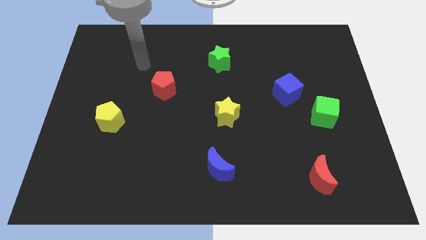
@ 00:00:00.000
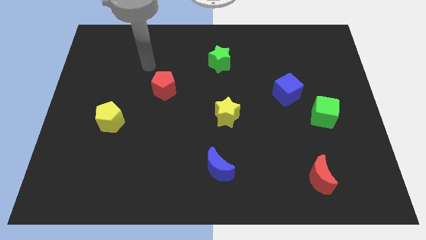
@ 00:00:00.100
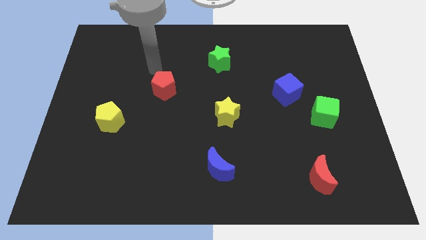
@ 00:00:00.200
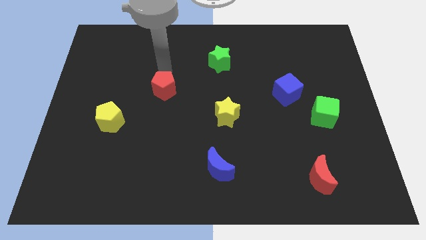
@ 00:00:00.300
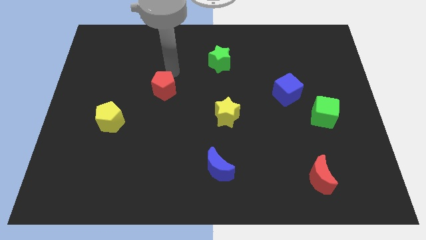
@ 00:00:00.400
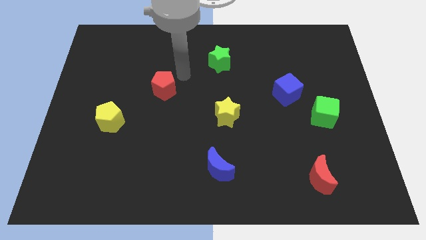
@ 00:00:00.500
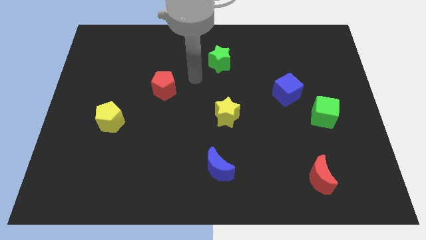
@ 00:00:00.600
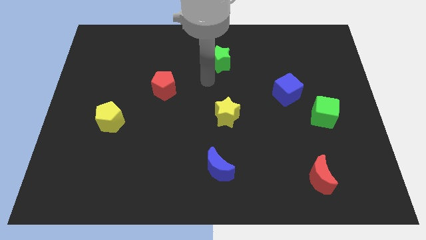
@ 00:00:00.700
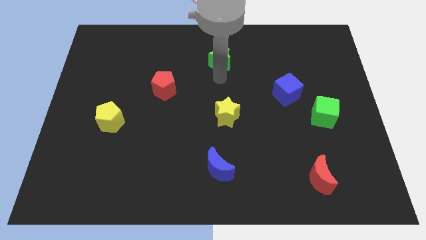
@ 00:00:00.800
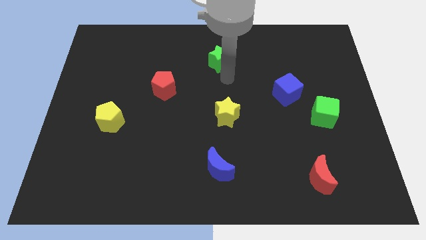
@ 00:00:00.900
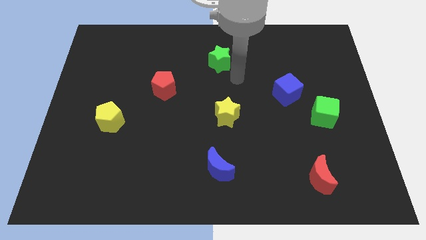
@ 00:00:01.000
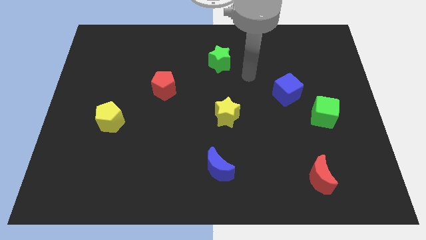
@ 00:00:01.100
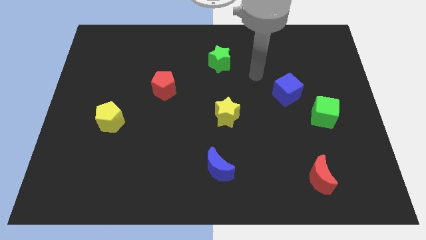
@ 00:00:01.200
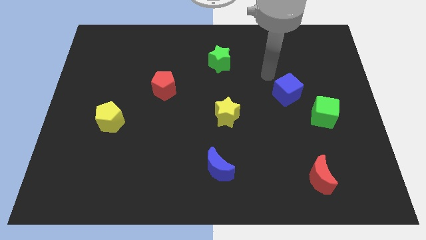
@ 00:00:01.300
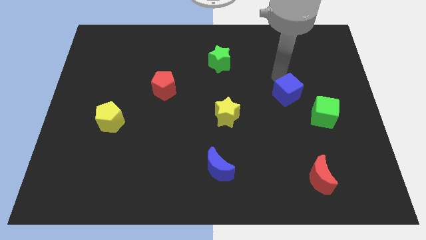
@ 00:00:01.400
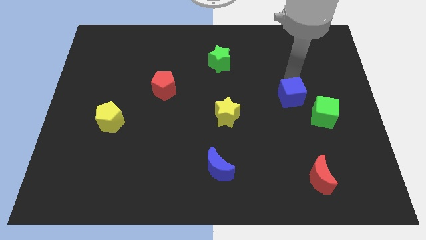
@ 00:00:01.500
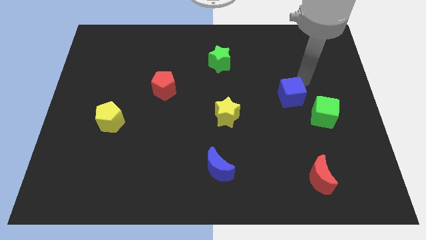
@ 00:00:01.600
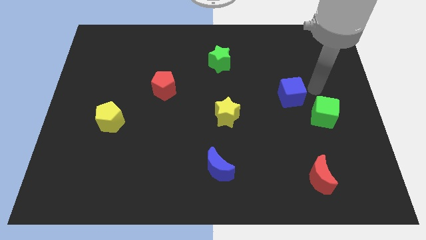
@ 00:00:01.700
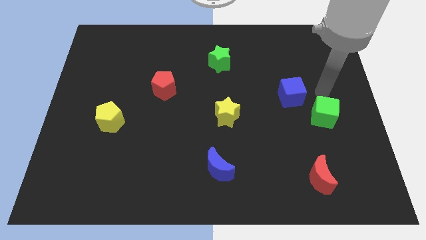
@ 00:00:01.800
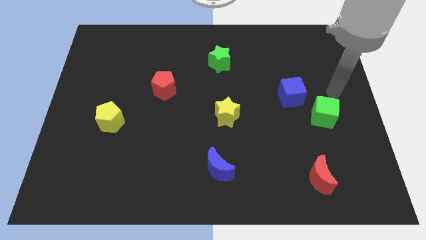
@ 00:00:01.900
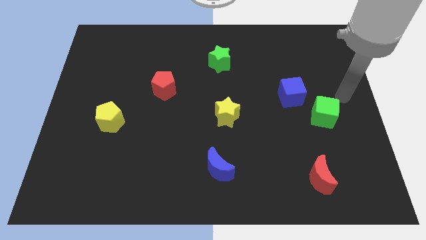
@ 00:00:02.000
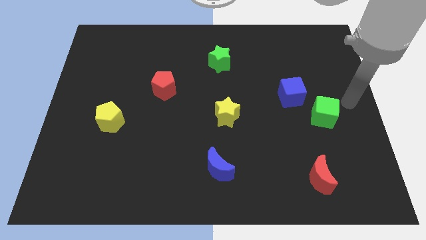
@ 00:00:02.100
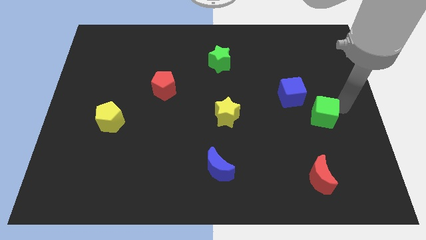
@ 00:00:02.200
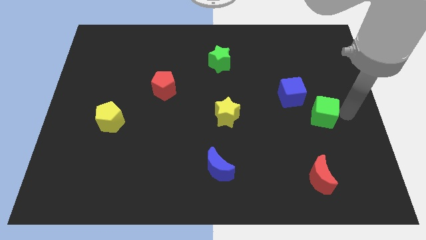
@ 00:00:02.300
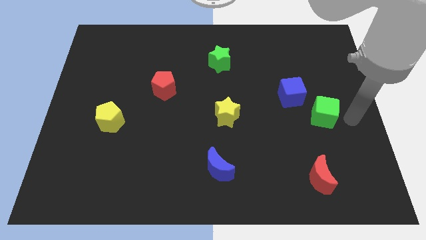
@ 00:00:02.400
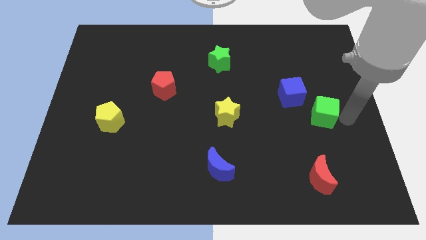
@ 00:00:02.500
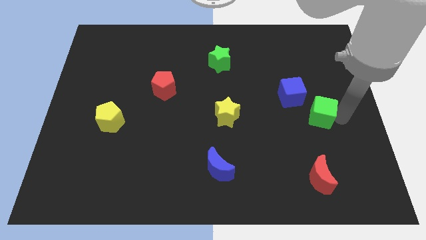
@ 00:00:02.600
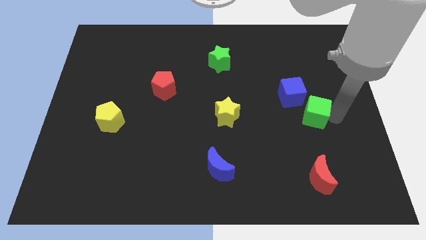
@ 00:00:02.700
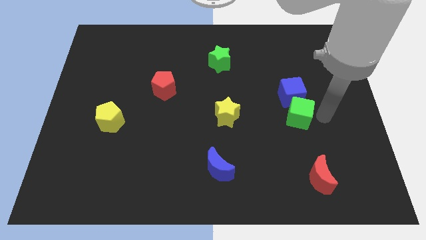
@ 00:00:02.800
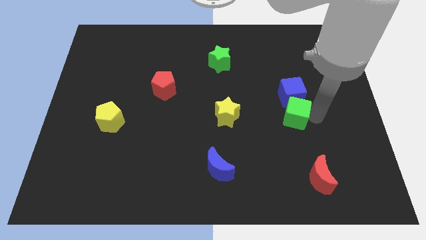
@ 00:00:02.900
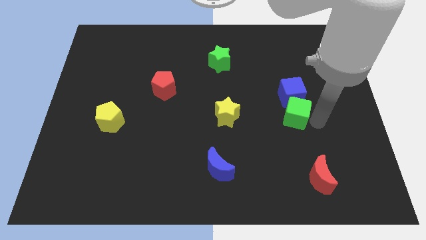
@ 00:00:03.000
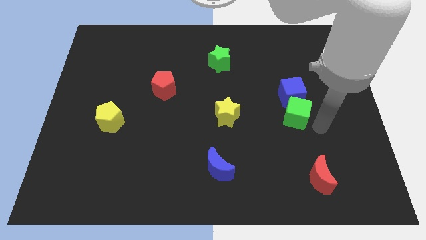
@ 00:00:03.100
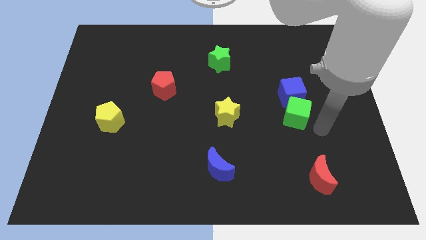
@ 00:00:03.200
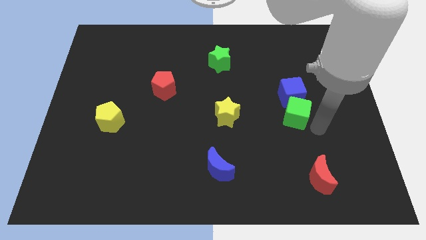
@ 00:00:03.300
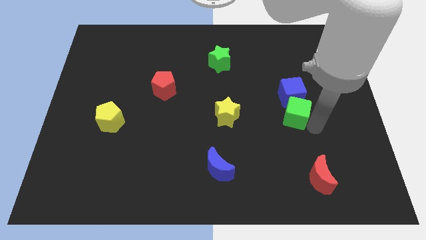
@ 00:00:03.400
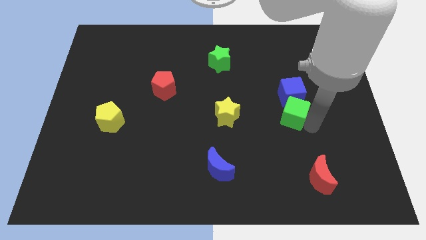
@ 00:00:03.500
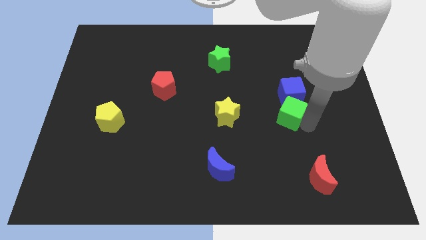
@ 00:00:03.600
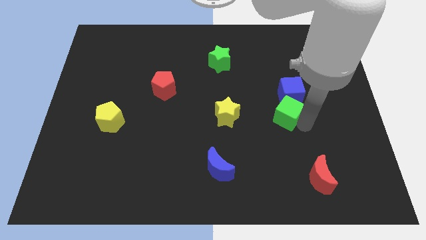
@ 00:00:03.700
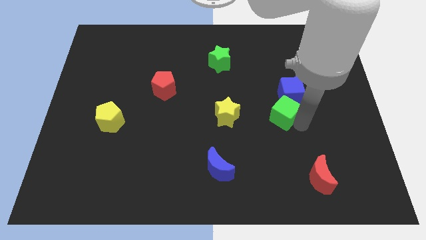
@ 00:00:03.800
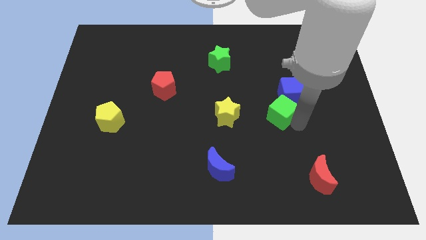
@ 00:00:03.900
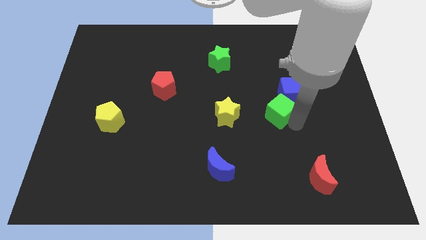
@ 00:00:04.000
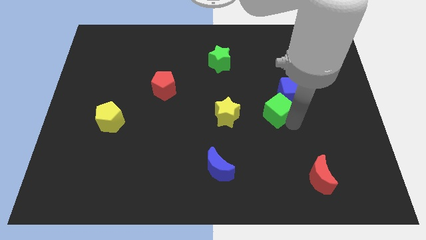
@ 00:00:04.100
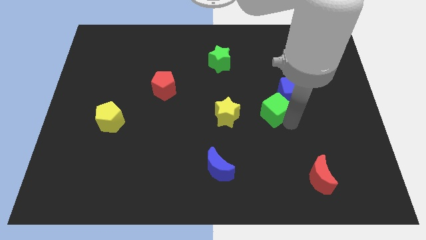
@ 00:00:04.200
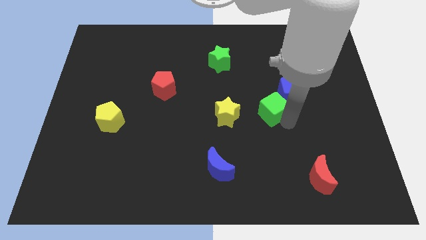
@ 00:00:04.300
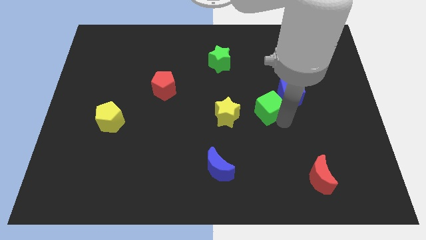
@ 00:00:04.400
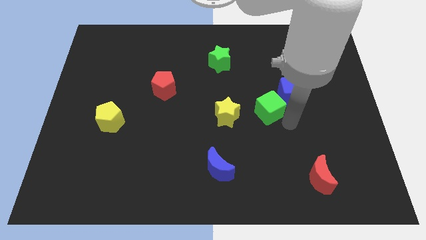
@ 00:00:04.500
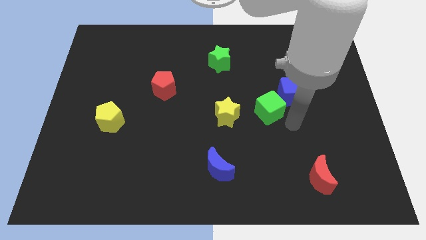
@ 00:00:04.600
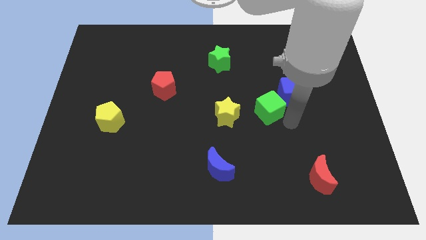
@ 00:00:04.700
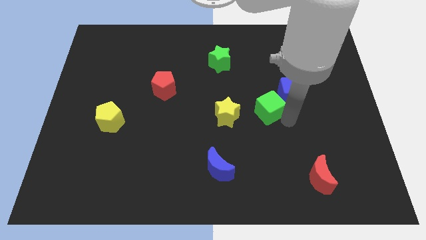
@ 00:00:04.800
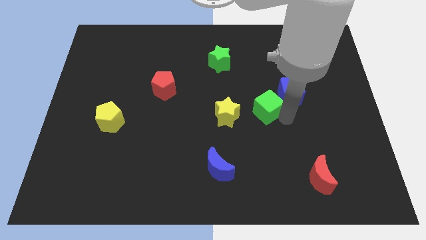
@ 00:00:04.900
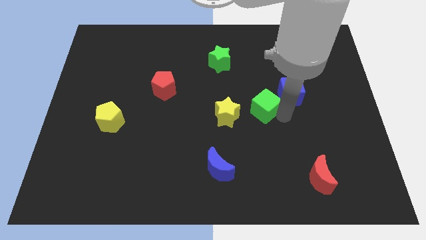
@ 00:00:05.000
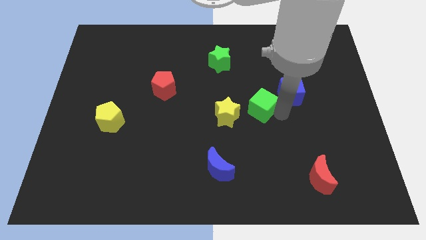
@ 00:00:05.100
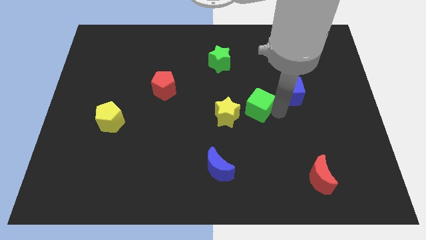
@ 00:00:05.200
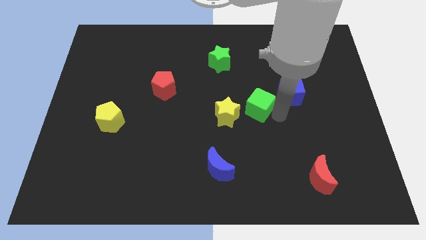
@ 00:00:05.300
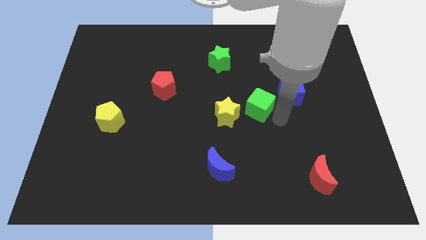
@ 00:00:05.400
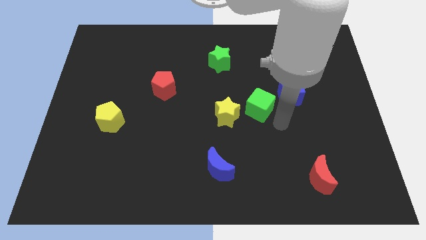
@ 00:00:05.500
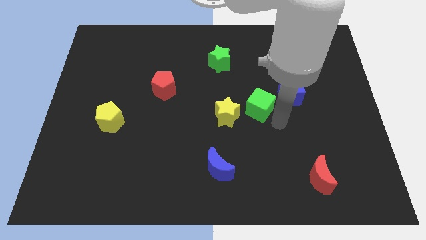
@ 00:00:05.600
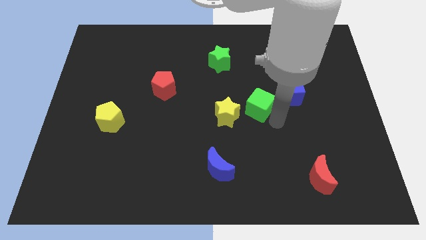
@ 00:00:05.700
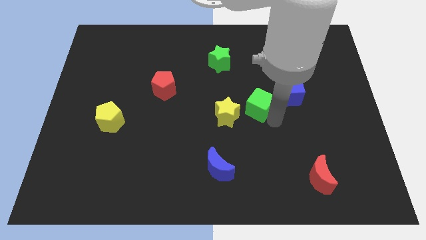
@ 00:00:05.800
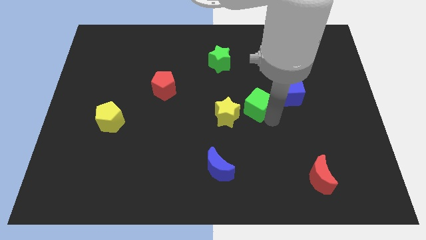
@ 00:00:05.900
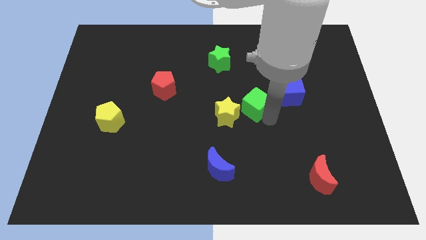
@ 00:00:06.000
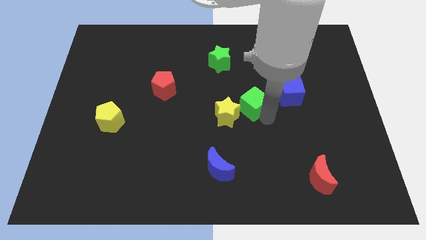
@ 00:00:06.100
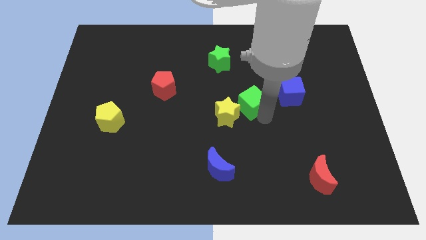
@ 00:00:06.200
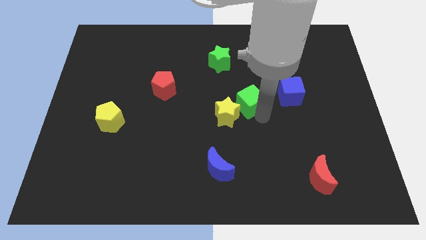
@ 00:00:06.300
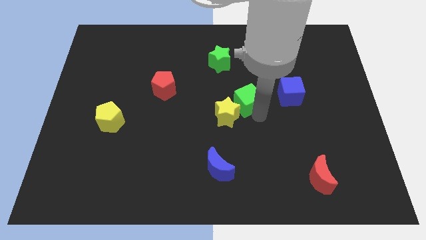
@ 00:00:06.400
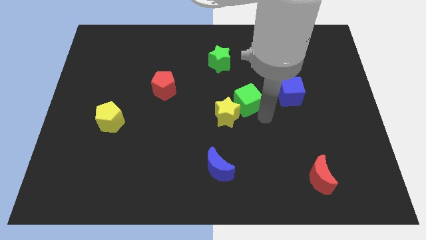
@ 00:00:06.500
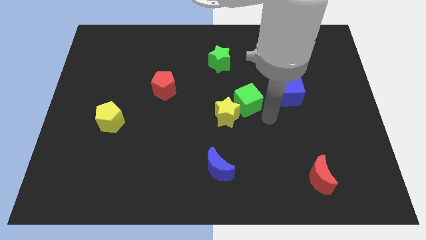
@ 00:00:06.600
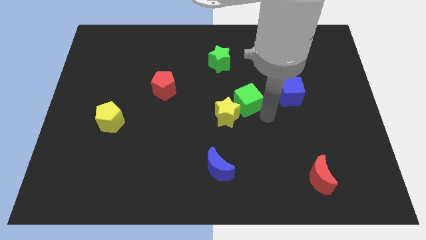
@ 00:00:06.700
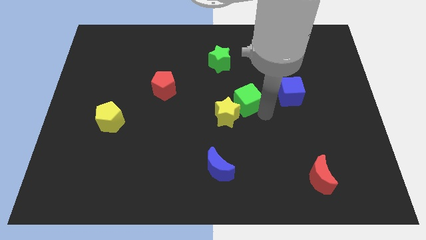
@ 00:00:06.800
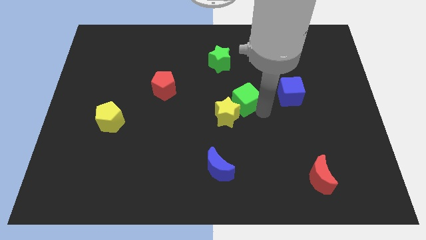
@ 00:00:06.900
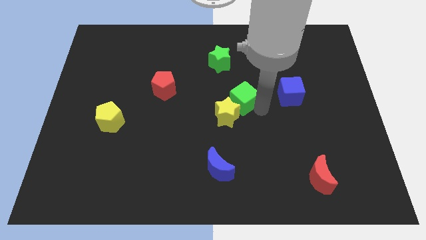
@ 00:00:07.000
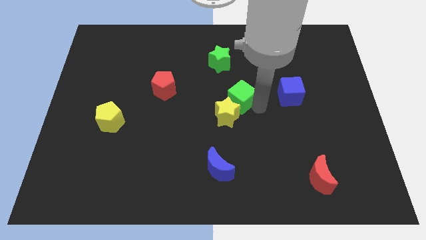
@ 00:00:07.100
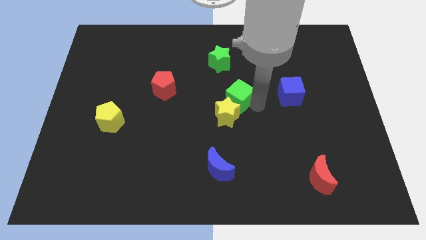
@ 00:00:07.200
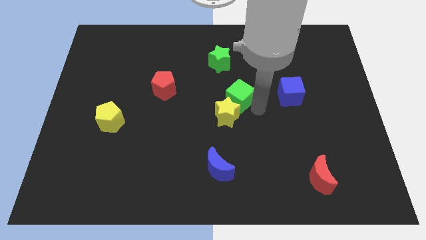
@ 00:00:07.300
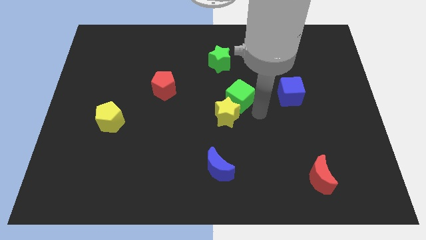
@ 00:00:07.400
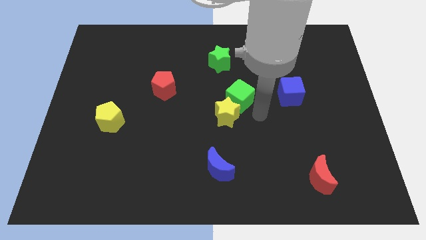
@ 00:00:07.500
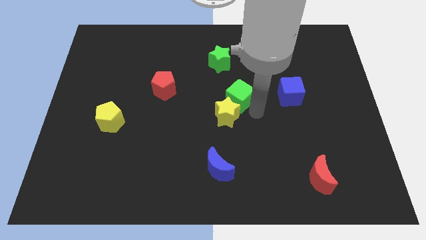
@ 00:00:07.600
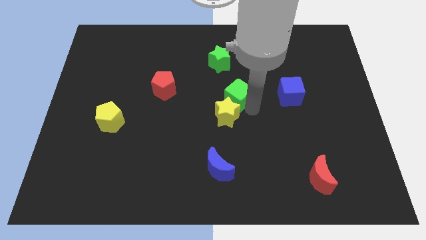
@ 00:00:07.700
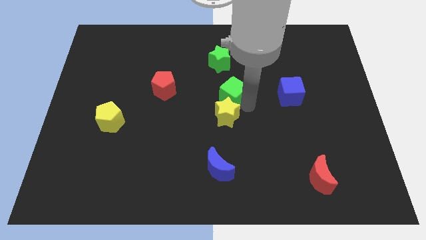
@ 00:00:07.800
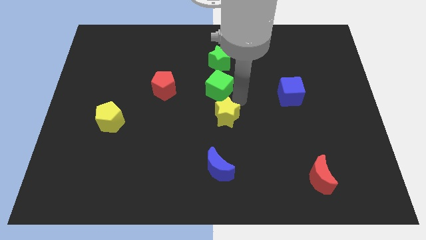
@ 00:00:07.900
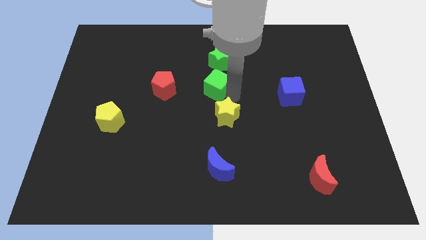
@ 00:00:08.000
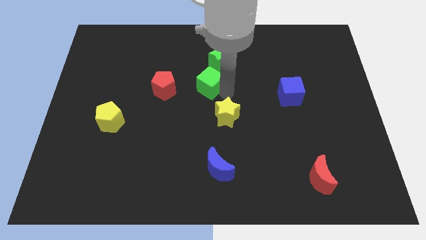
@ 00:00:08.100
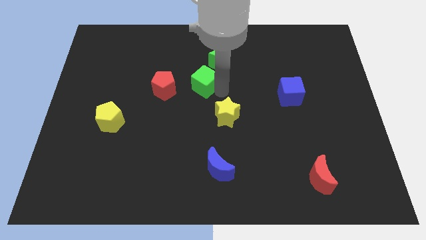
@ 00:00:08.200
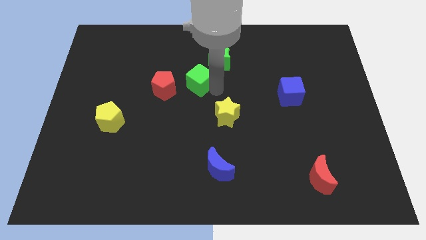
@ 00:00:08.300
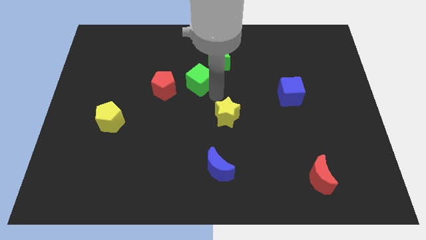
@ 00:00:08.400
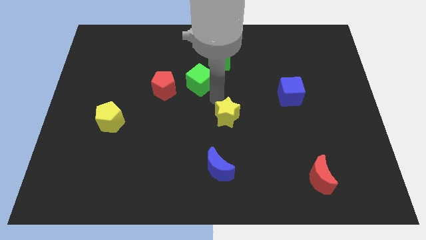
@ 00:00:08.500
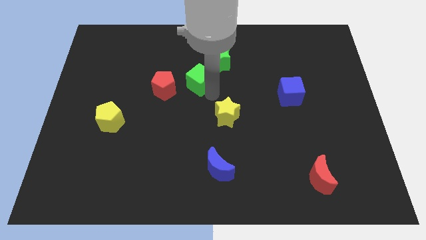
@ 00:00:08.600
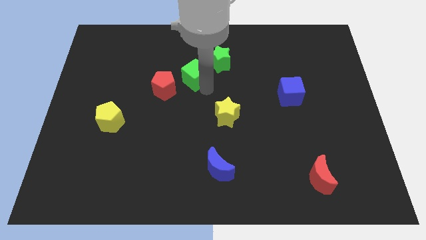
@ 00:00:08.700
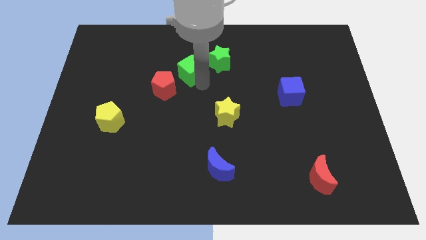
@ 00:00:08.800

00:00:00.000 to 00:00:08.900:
slide the green cube to the left side of the green star
